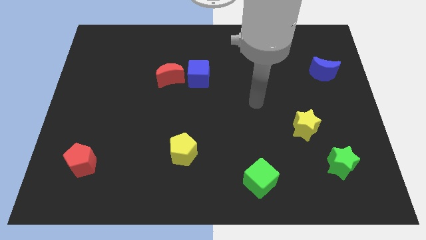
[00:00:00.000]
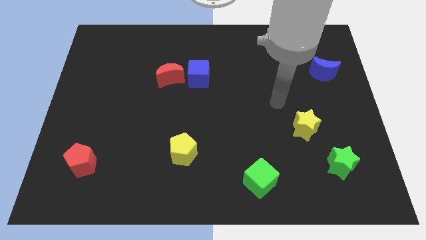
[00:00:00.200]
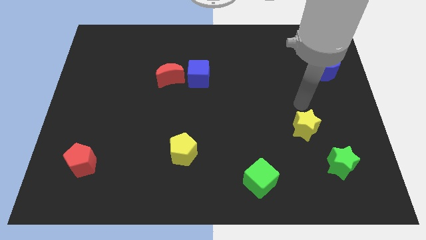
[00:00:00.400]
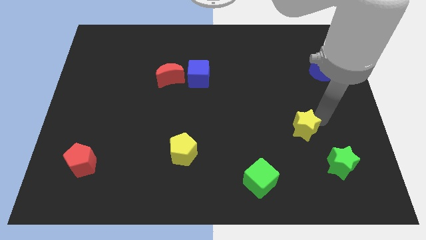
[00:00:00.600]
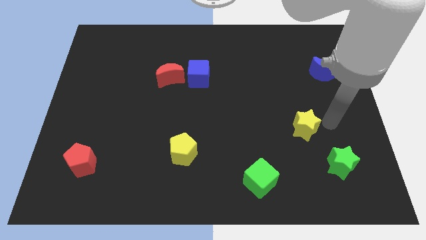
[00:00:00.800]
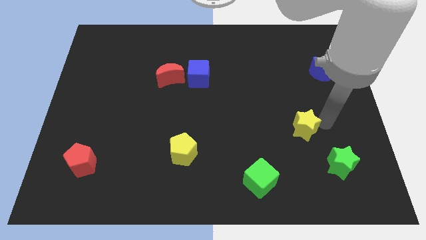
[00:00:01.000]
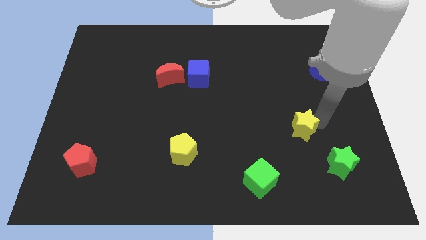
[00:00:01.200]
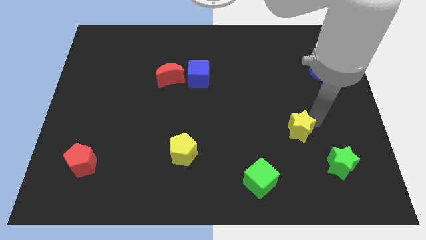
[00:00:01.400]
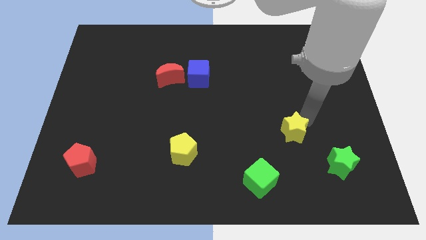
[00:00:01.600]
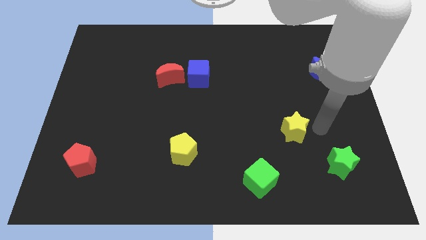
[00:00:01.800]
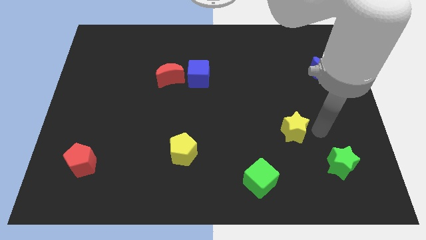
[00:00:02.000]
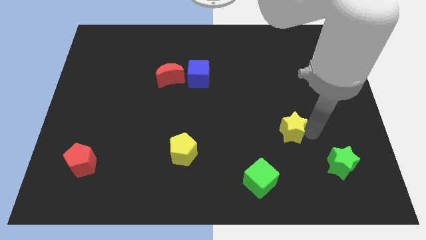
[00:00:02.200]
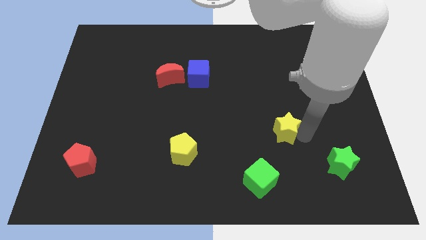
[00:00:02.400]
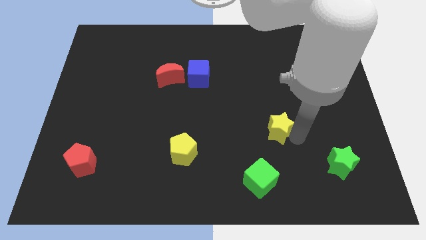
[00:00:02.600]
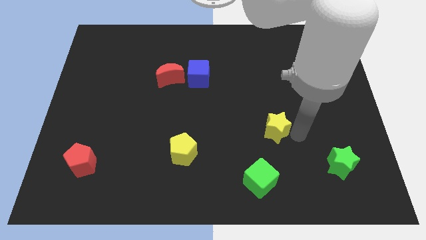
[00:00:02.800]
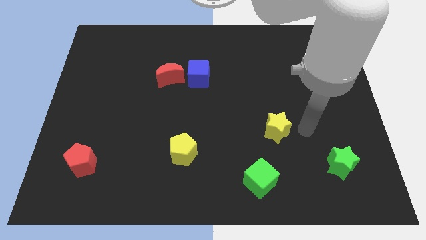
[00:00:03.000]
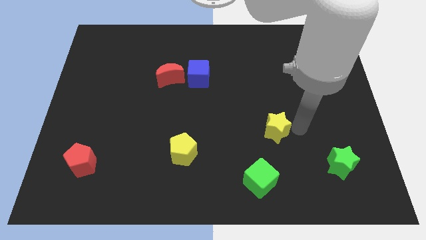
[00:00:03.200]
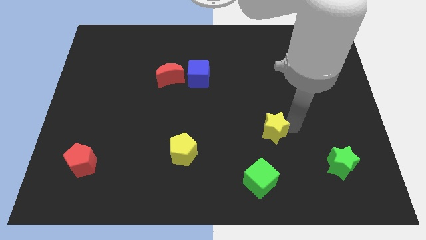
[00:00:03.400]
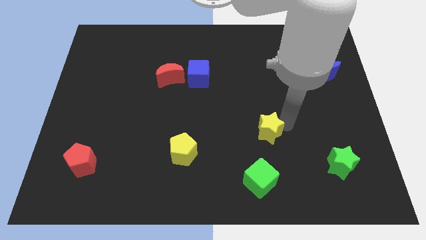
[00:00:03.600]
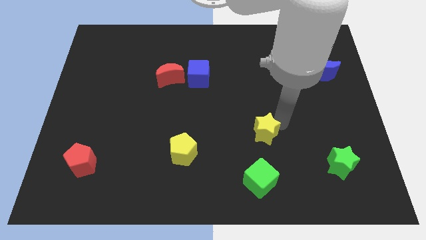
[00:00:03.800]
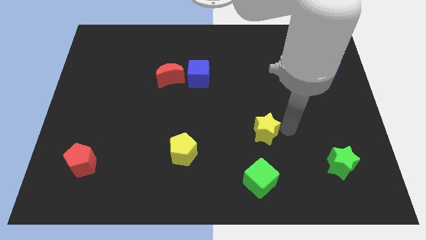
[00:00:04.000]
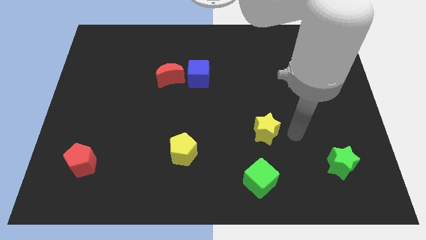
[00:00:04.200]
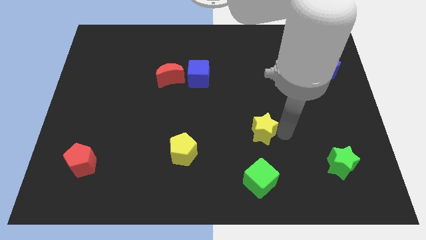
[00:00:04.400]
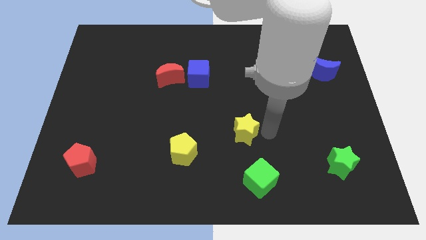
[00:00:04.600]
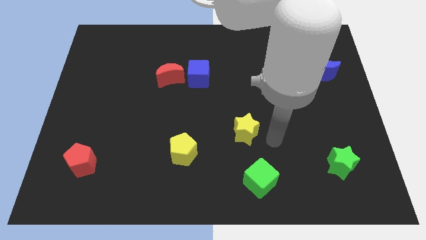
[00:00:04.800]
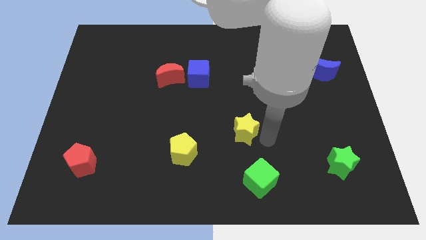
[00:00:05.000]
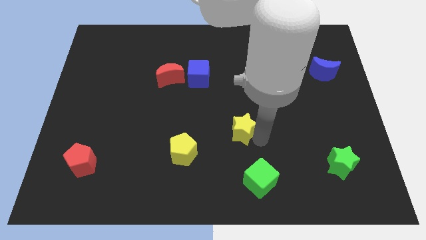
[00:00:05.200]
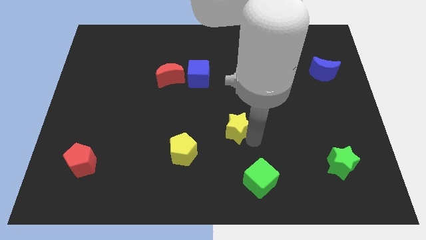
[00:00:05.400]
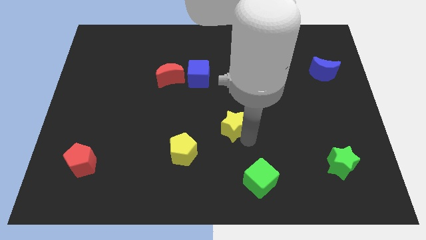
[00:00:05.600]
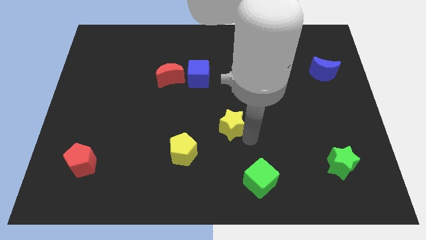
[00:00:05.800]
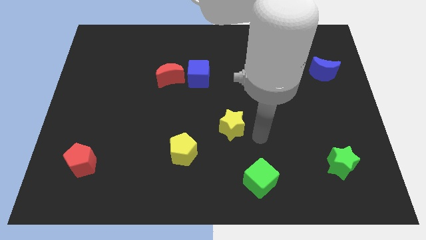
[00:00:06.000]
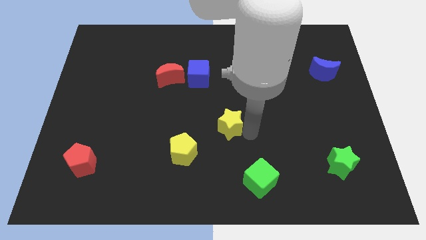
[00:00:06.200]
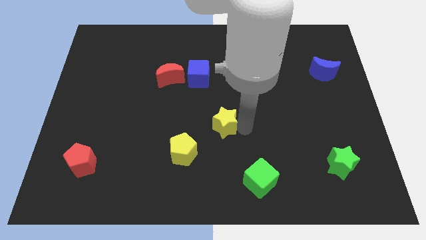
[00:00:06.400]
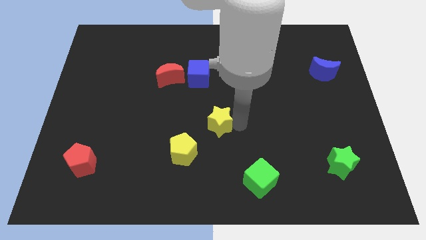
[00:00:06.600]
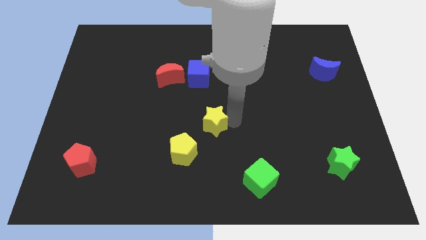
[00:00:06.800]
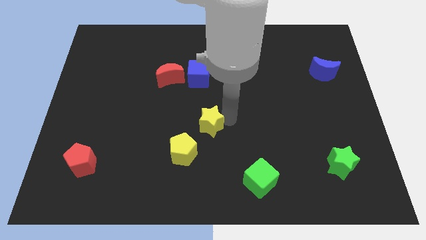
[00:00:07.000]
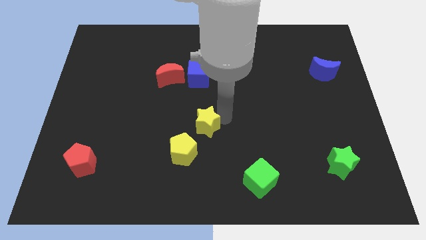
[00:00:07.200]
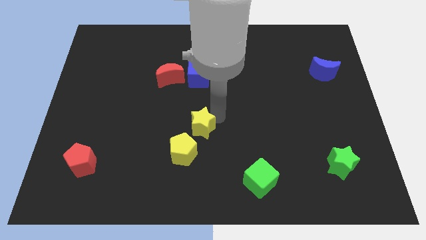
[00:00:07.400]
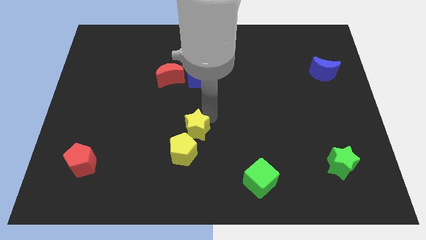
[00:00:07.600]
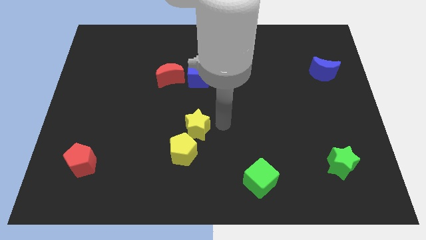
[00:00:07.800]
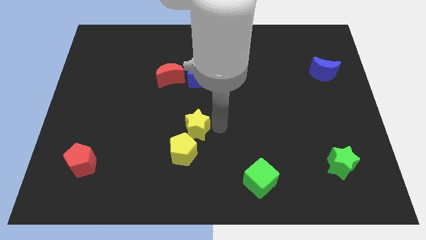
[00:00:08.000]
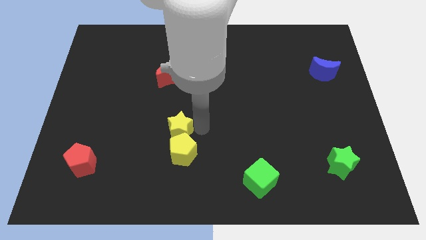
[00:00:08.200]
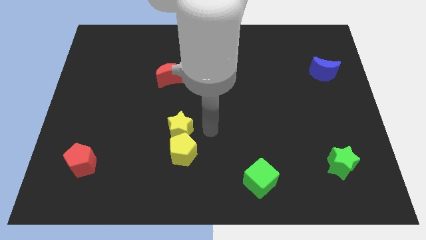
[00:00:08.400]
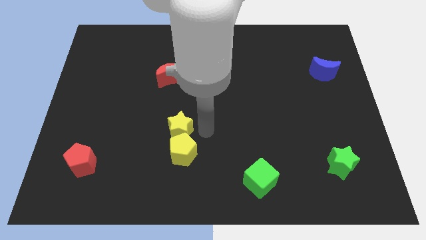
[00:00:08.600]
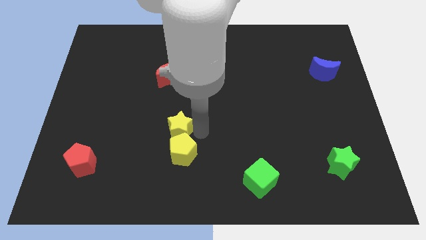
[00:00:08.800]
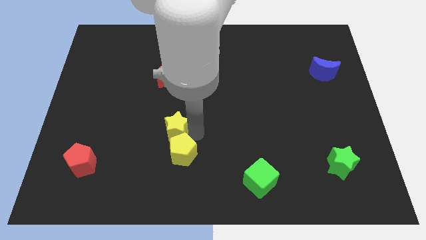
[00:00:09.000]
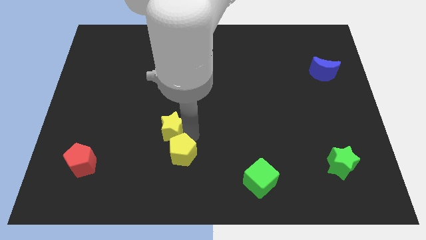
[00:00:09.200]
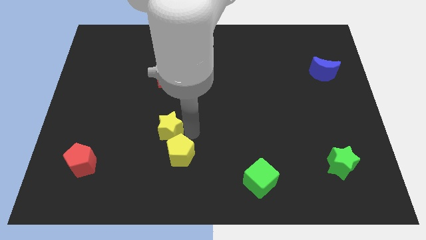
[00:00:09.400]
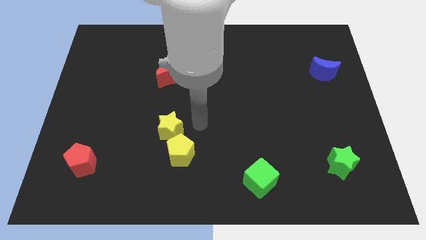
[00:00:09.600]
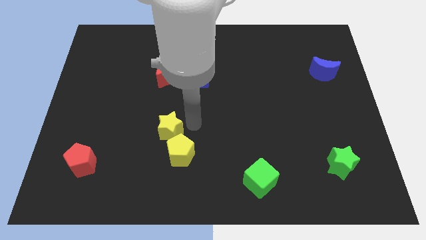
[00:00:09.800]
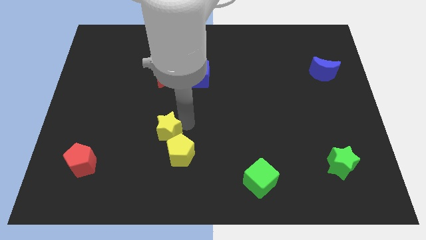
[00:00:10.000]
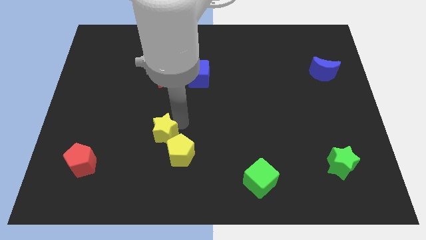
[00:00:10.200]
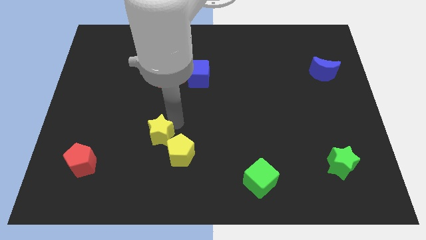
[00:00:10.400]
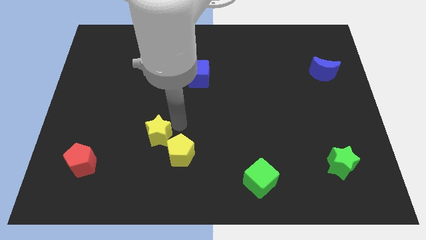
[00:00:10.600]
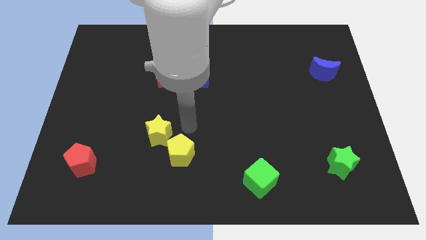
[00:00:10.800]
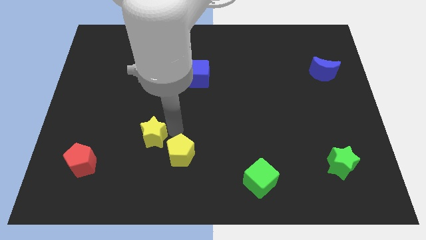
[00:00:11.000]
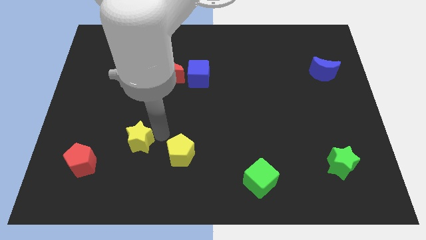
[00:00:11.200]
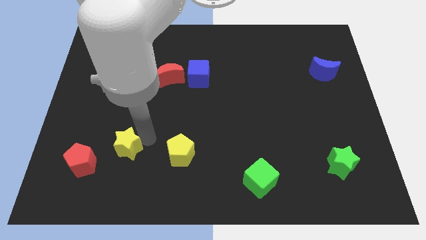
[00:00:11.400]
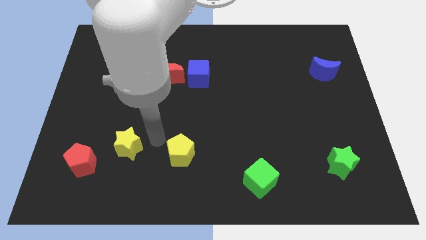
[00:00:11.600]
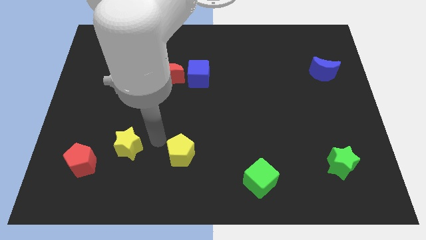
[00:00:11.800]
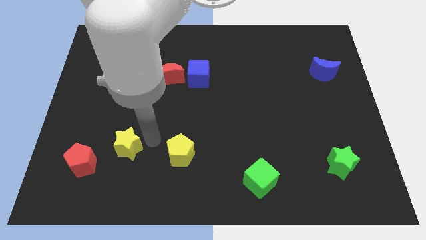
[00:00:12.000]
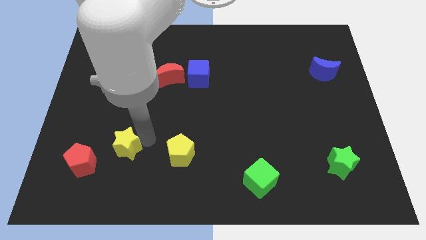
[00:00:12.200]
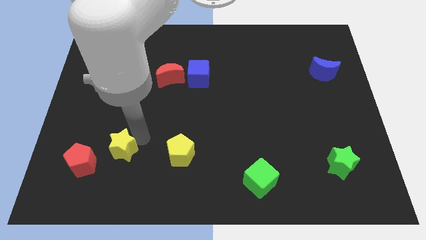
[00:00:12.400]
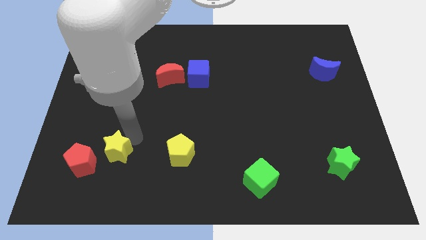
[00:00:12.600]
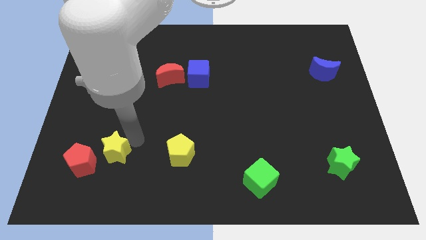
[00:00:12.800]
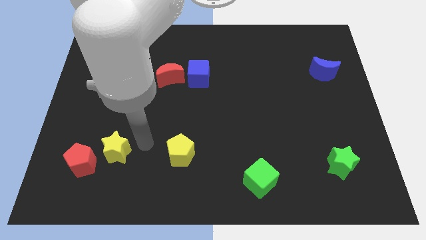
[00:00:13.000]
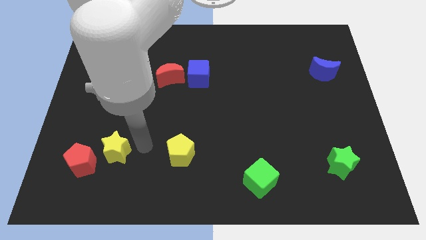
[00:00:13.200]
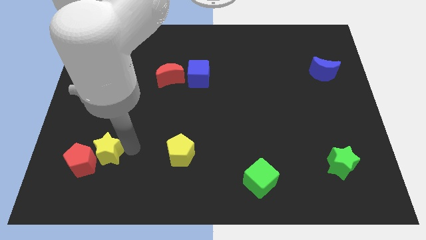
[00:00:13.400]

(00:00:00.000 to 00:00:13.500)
move the yellow star towards the red pentagon

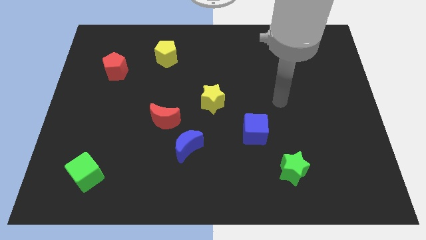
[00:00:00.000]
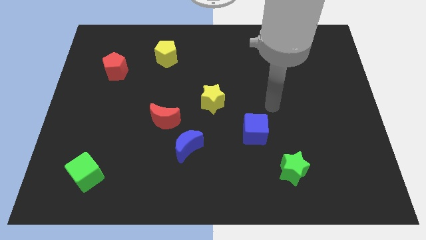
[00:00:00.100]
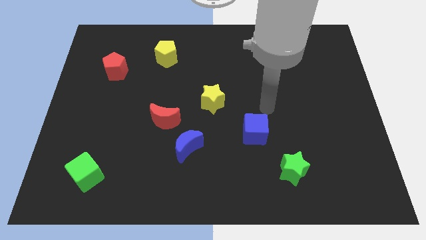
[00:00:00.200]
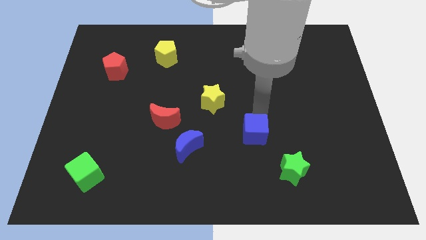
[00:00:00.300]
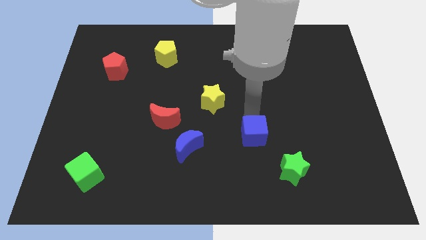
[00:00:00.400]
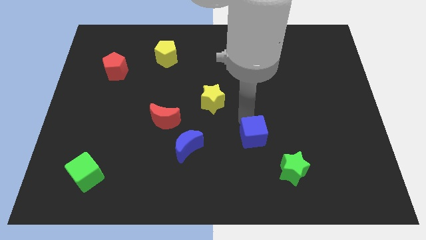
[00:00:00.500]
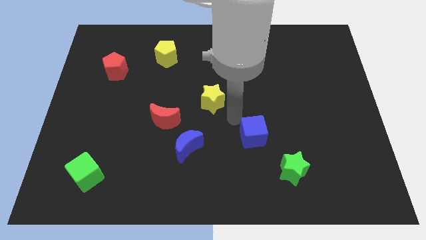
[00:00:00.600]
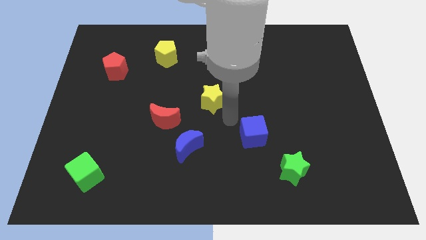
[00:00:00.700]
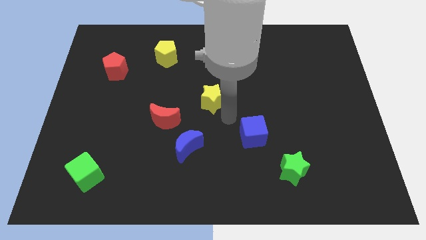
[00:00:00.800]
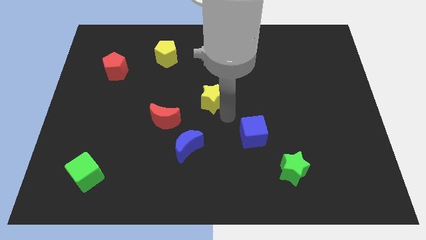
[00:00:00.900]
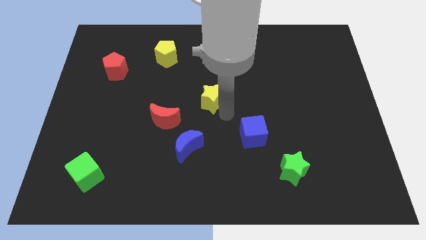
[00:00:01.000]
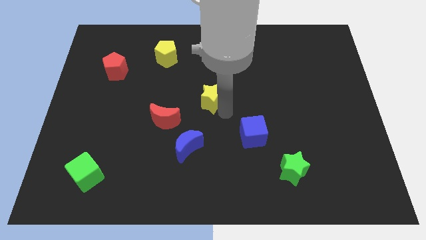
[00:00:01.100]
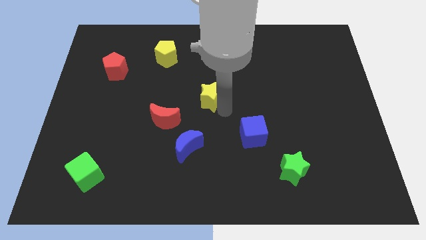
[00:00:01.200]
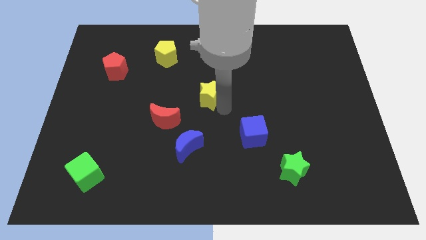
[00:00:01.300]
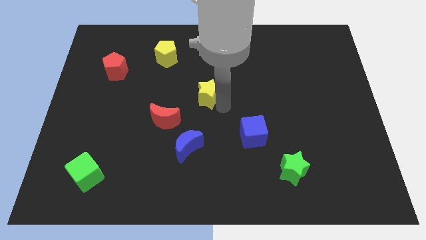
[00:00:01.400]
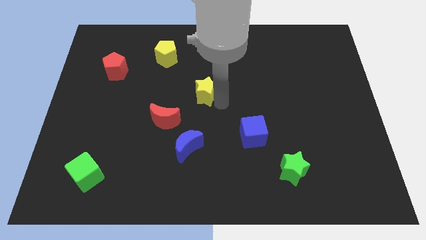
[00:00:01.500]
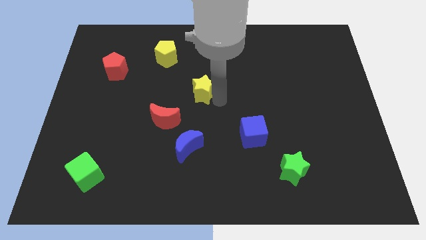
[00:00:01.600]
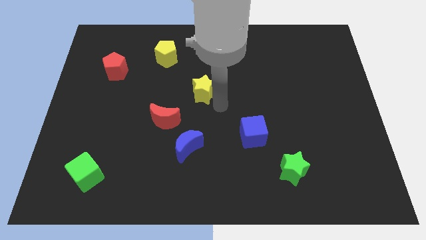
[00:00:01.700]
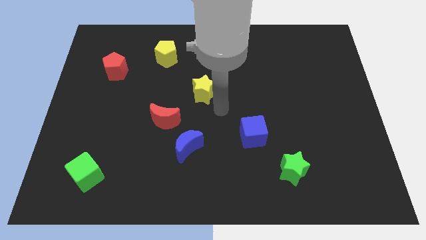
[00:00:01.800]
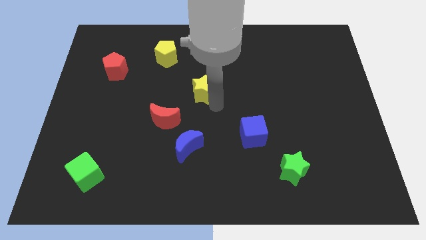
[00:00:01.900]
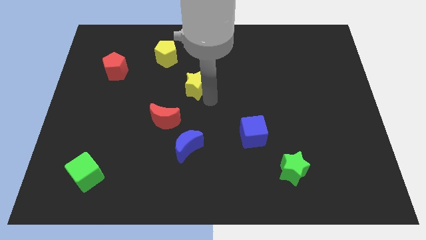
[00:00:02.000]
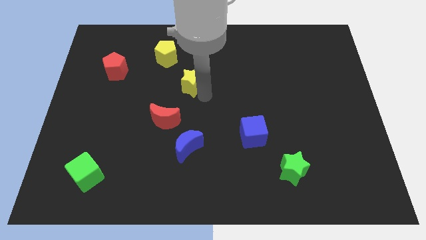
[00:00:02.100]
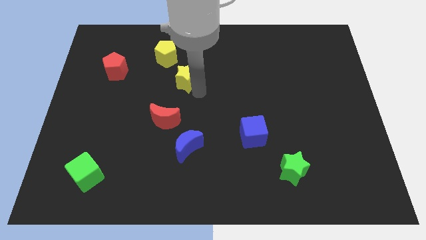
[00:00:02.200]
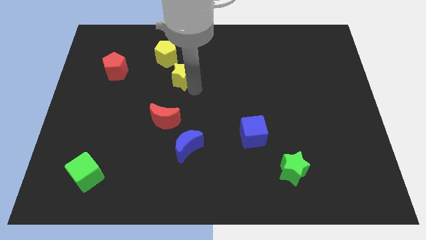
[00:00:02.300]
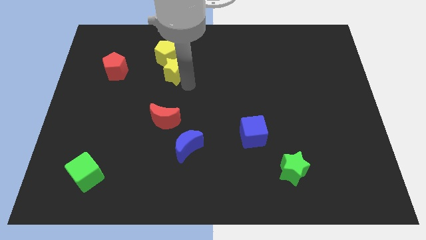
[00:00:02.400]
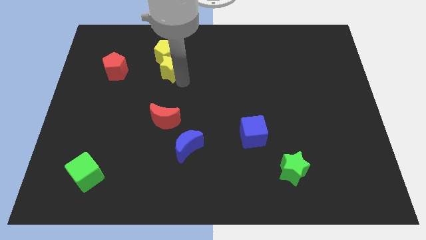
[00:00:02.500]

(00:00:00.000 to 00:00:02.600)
move the yellow star close to the yellow pentagon
